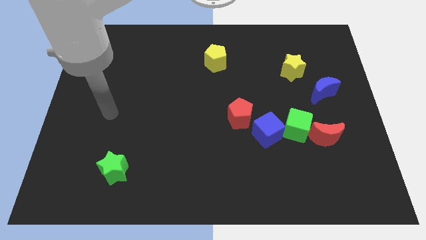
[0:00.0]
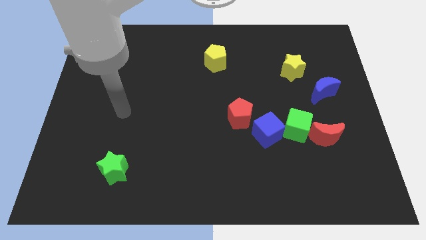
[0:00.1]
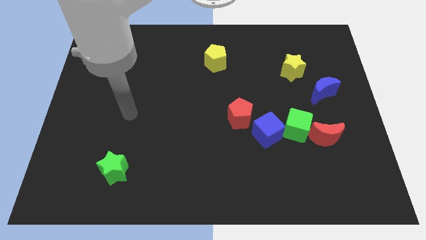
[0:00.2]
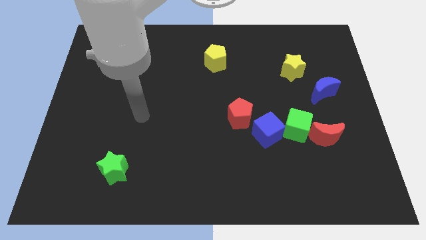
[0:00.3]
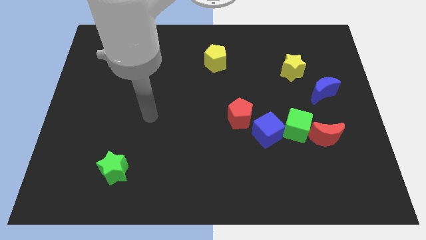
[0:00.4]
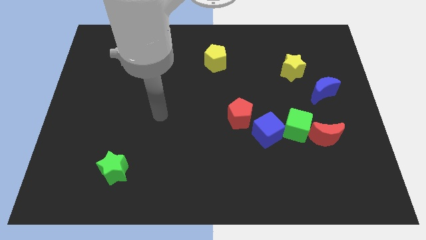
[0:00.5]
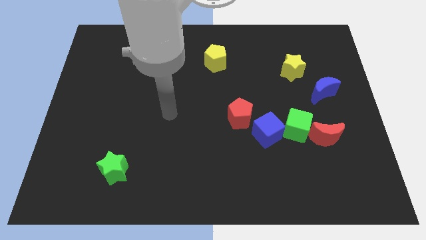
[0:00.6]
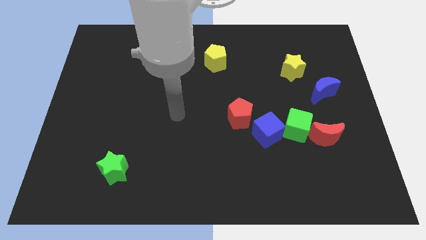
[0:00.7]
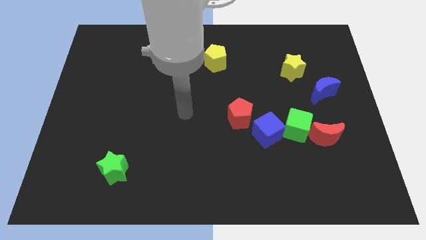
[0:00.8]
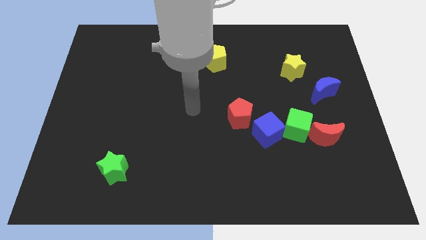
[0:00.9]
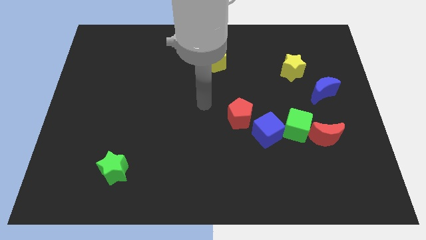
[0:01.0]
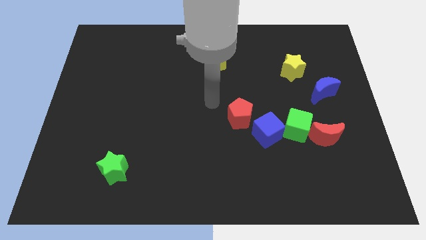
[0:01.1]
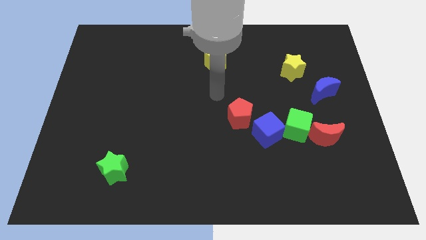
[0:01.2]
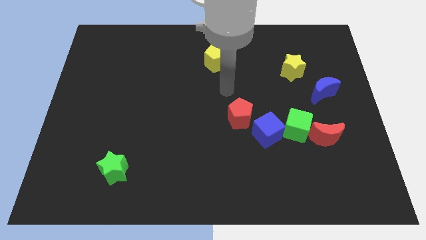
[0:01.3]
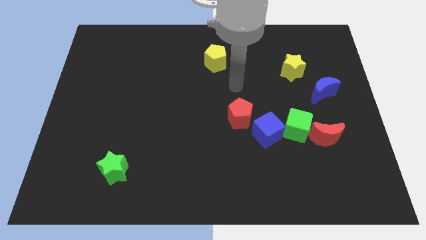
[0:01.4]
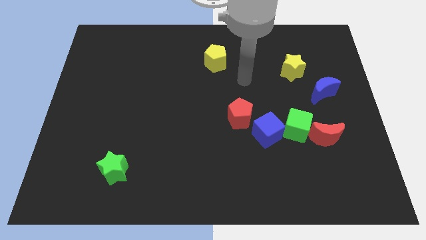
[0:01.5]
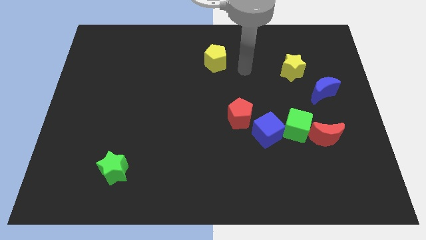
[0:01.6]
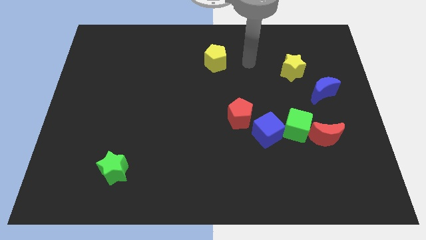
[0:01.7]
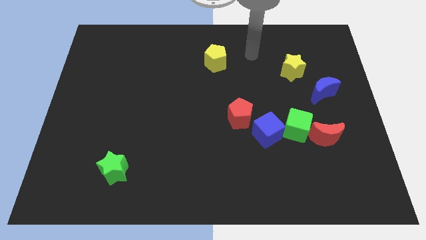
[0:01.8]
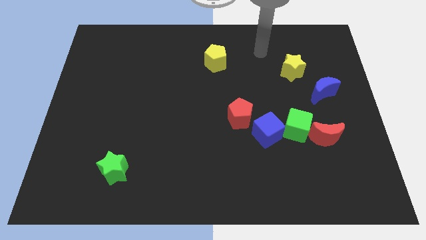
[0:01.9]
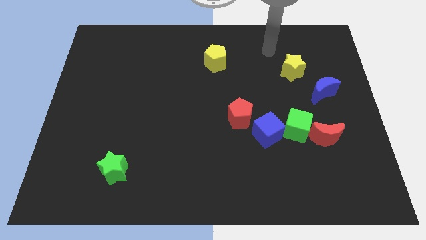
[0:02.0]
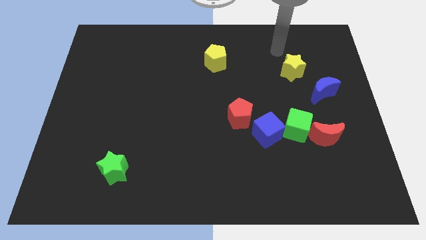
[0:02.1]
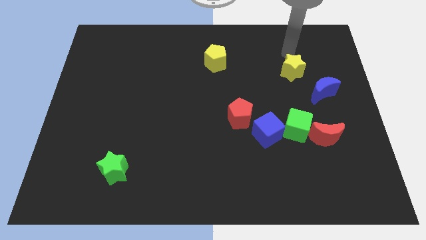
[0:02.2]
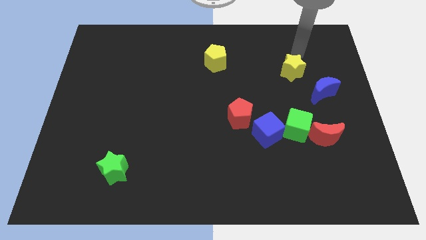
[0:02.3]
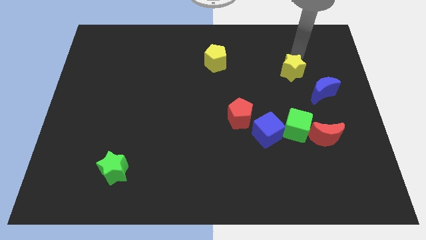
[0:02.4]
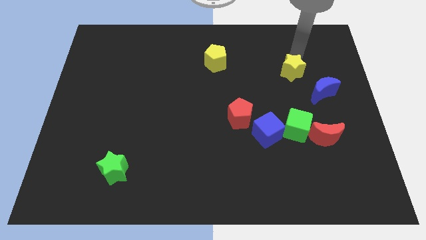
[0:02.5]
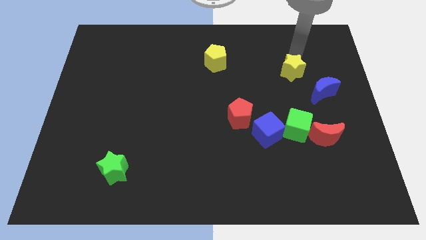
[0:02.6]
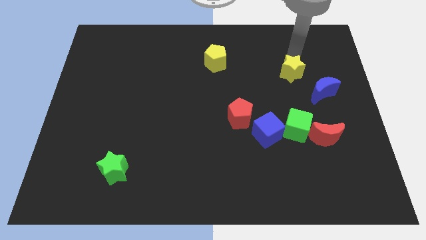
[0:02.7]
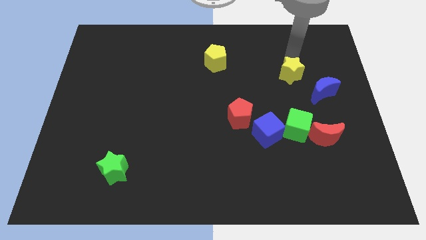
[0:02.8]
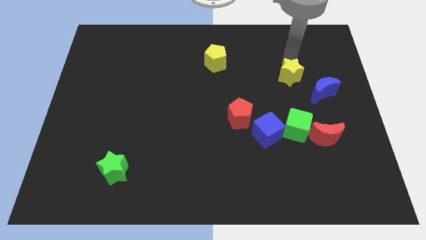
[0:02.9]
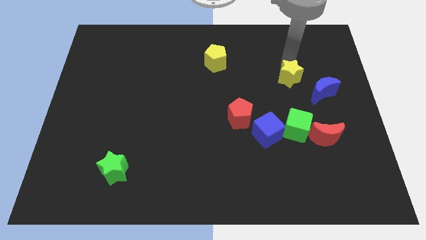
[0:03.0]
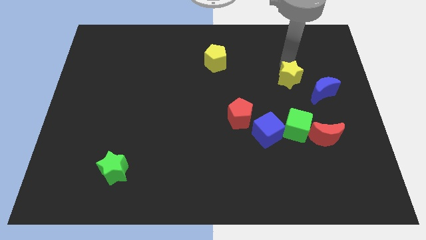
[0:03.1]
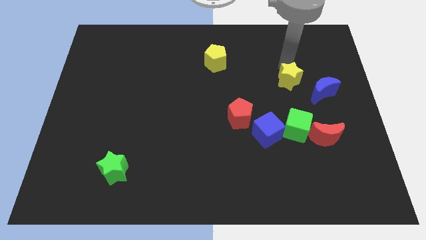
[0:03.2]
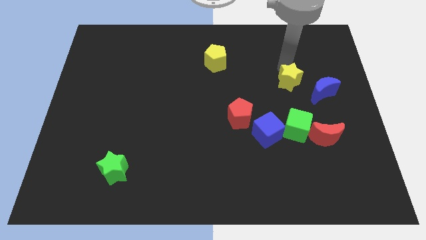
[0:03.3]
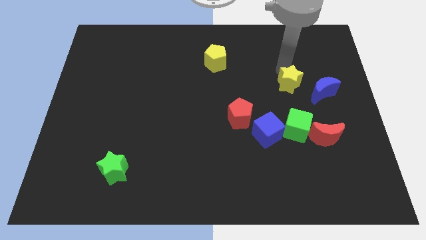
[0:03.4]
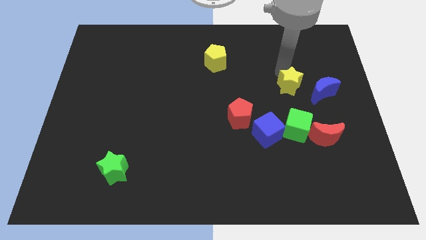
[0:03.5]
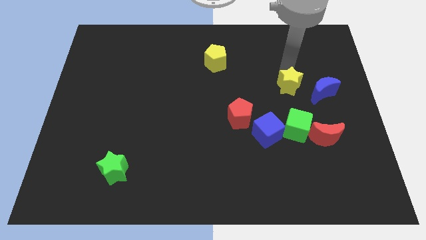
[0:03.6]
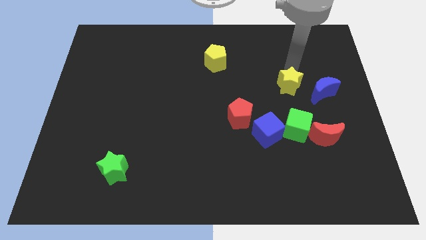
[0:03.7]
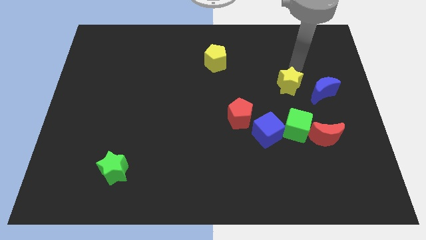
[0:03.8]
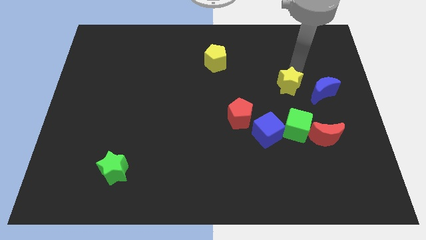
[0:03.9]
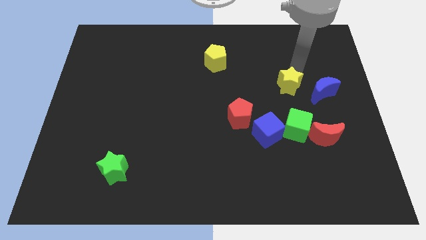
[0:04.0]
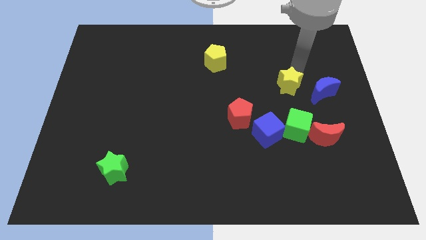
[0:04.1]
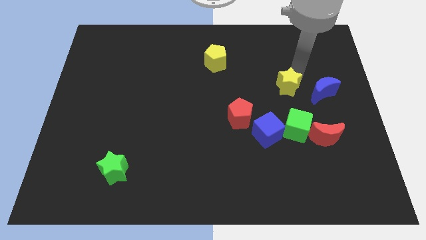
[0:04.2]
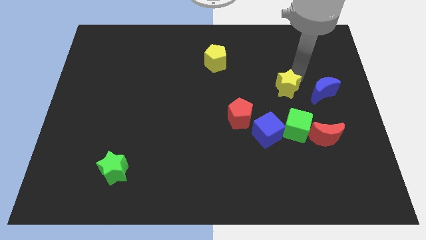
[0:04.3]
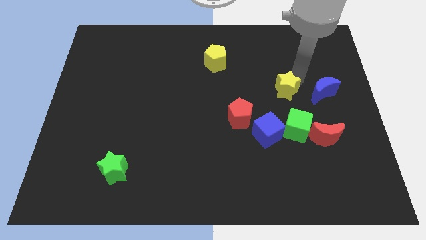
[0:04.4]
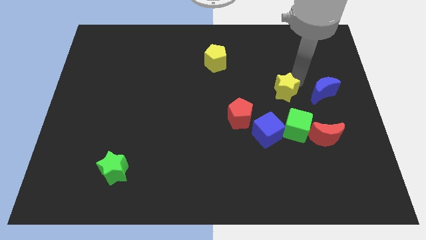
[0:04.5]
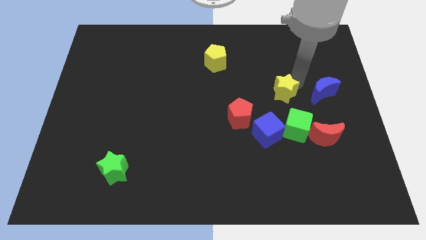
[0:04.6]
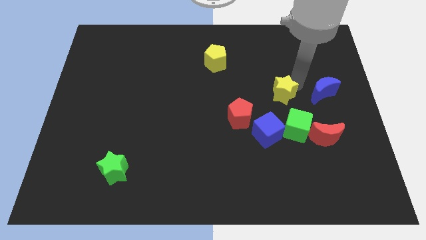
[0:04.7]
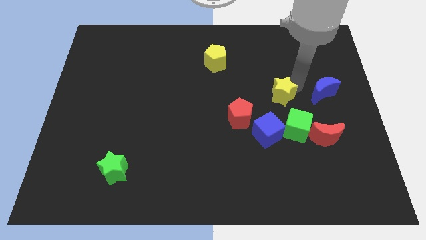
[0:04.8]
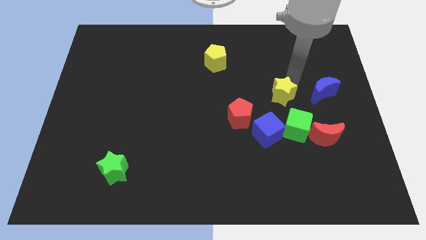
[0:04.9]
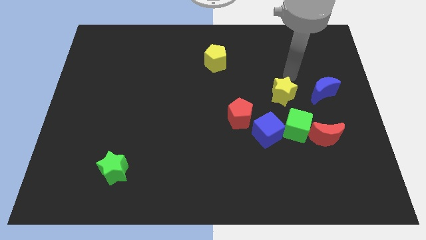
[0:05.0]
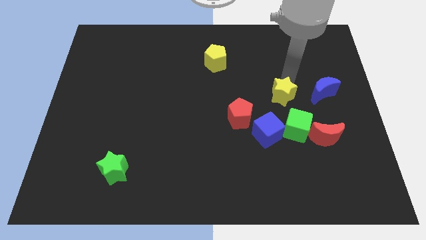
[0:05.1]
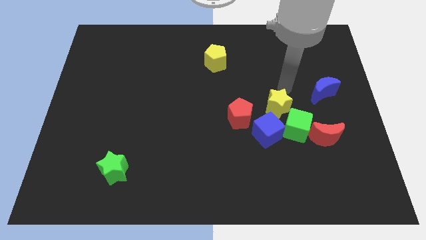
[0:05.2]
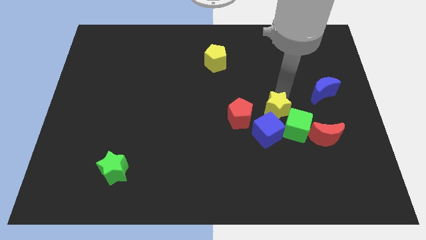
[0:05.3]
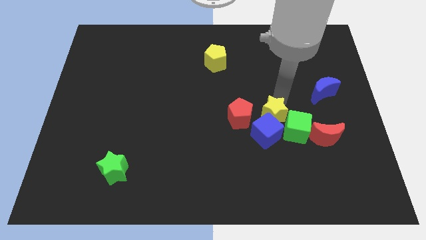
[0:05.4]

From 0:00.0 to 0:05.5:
put the yellow star next to the blue cube
